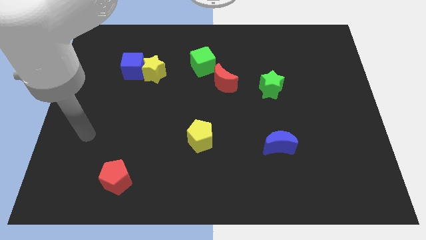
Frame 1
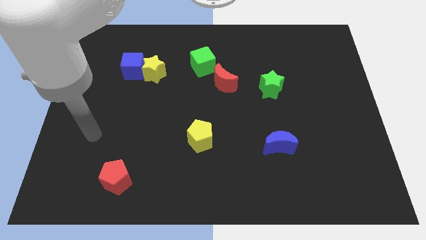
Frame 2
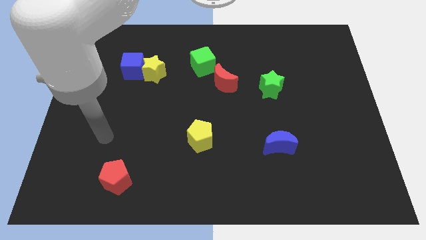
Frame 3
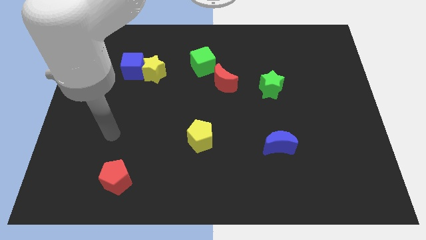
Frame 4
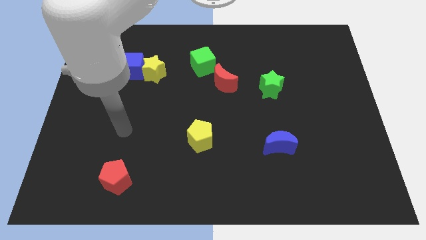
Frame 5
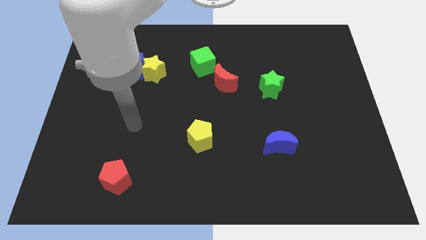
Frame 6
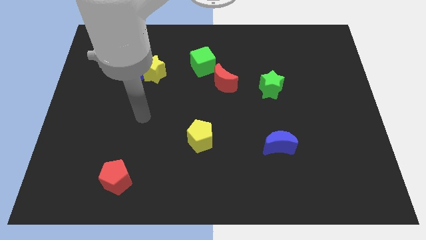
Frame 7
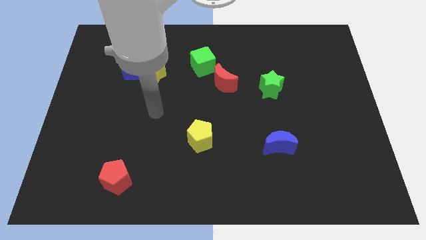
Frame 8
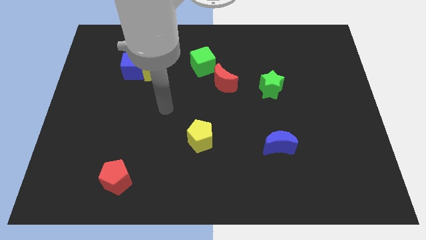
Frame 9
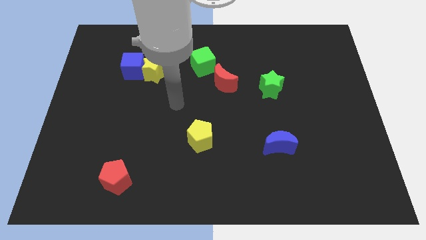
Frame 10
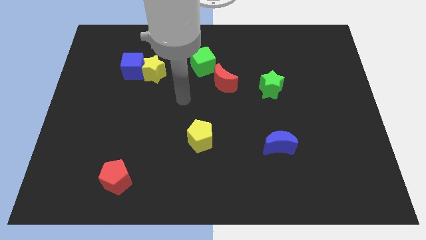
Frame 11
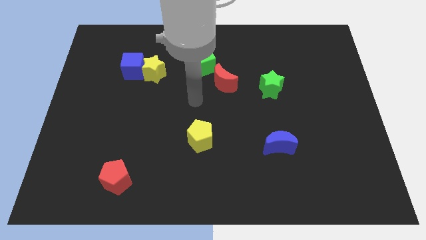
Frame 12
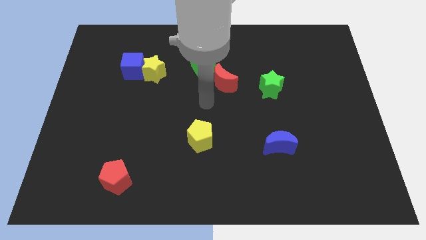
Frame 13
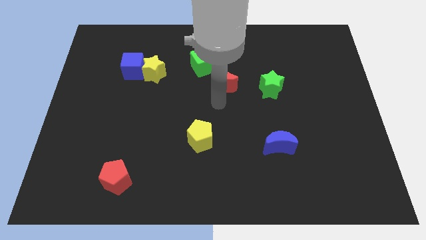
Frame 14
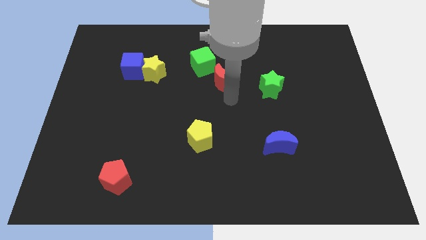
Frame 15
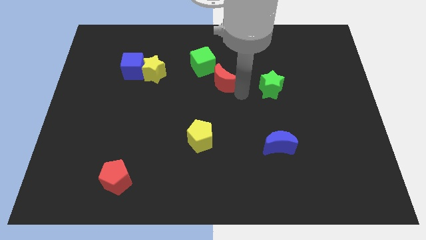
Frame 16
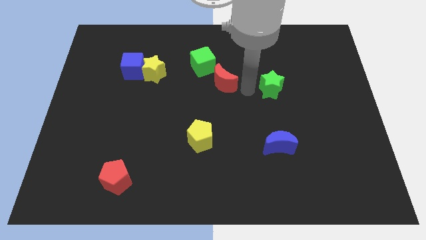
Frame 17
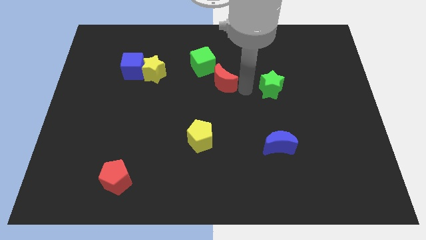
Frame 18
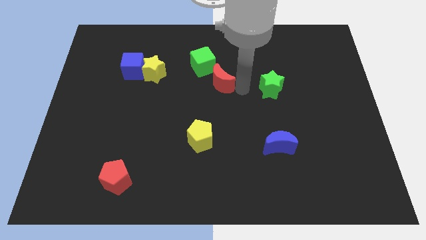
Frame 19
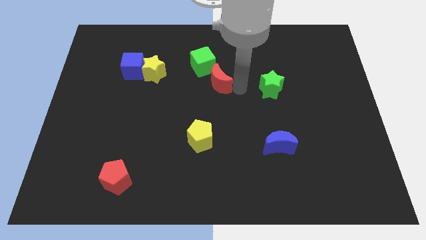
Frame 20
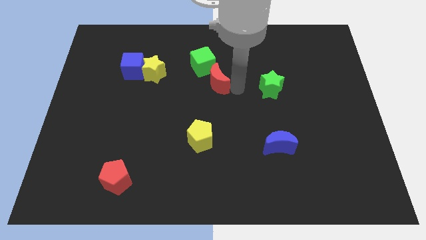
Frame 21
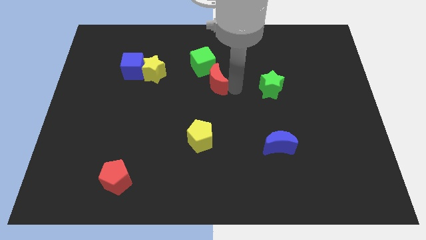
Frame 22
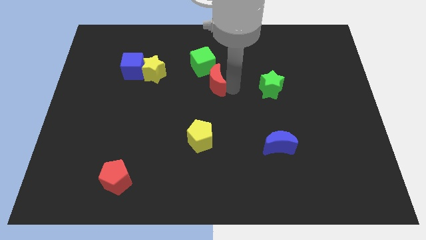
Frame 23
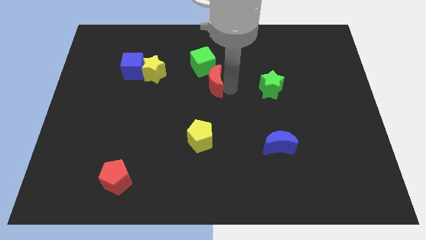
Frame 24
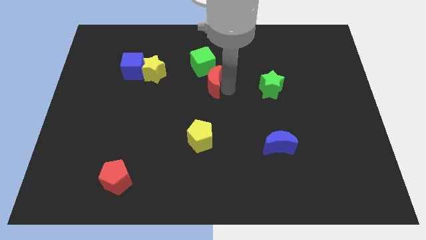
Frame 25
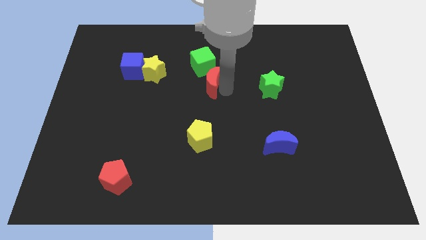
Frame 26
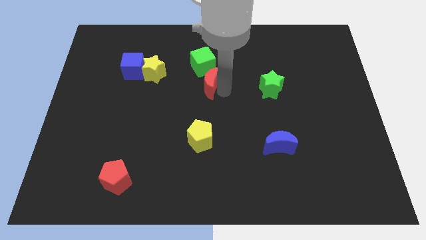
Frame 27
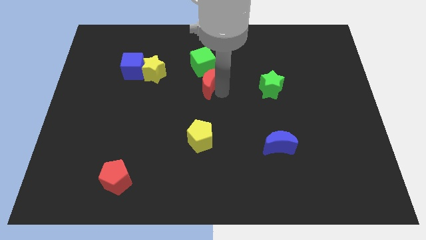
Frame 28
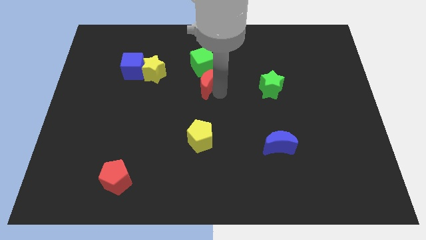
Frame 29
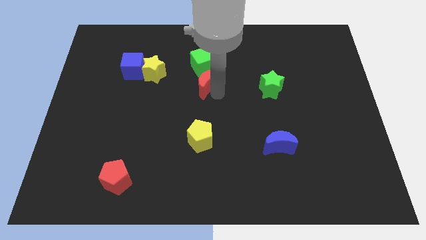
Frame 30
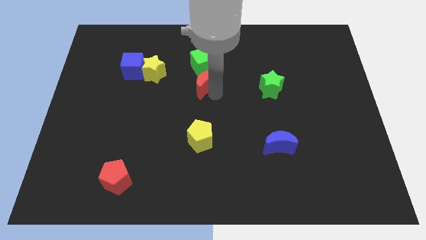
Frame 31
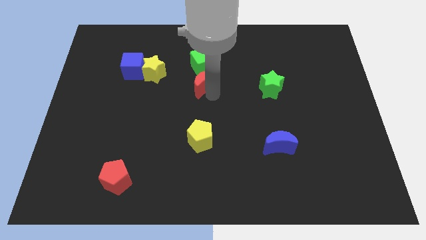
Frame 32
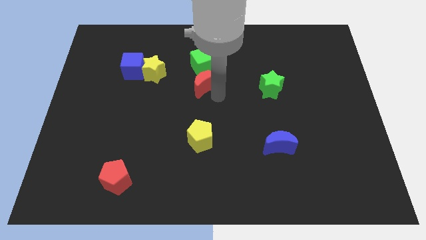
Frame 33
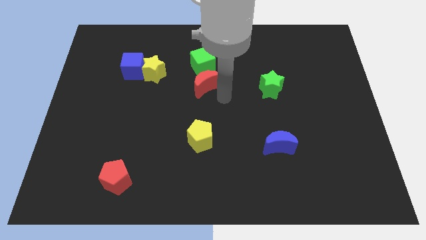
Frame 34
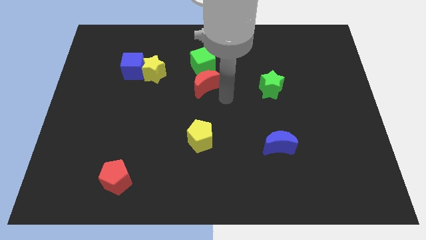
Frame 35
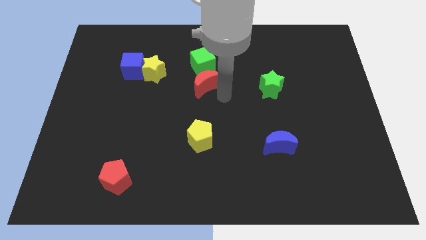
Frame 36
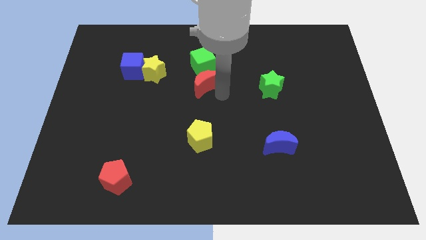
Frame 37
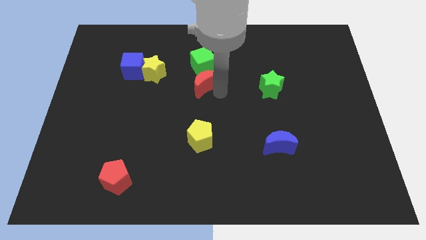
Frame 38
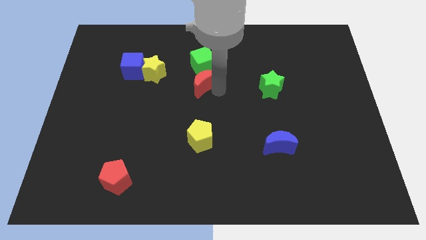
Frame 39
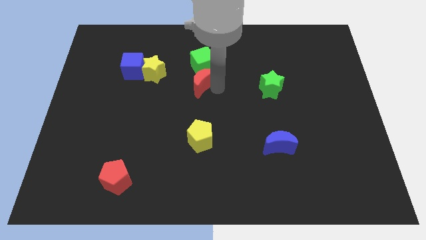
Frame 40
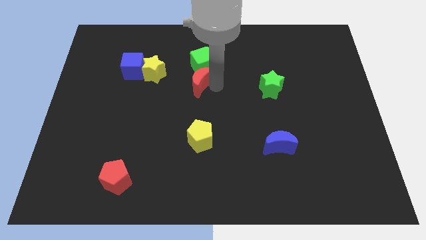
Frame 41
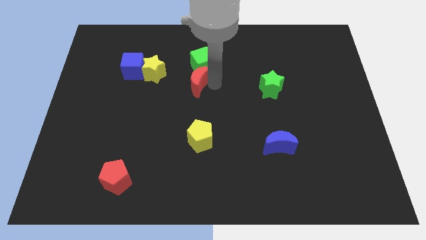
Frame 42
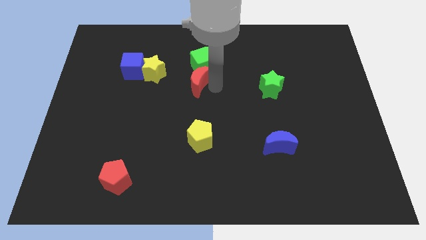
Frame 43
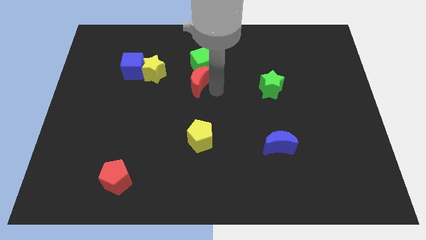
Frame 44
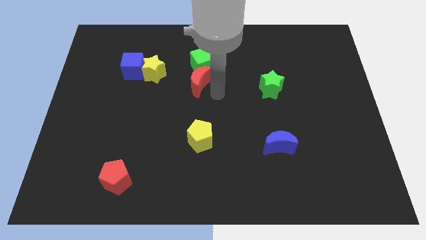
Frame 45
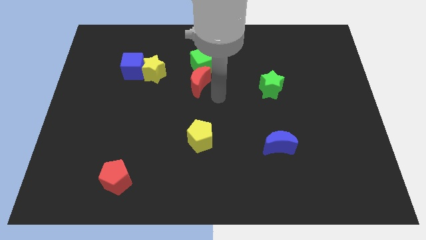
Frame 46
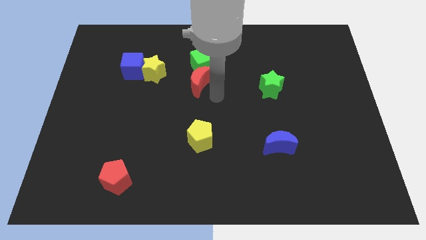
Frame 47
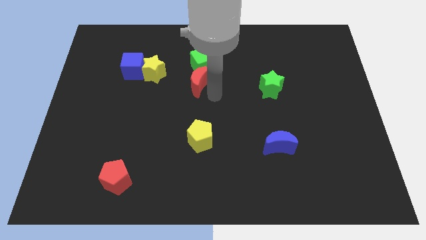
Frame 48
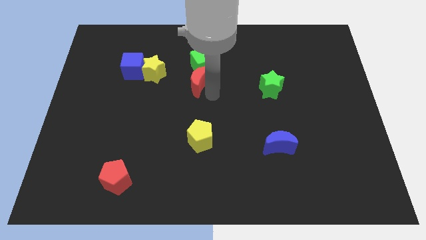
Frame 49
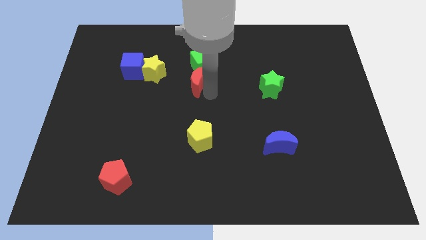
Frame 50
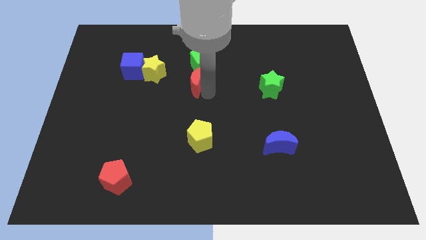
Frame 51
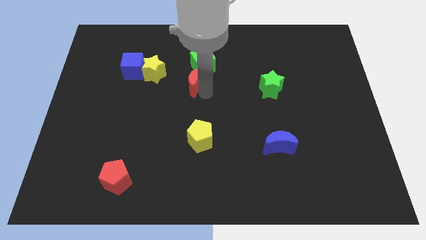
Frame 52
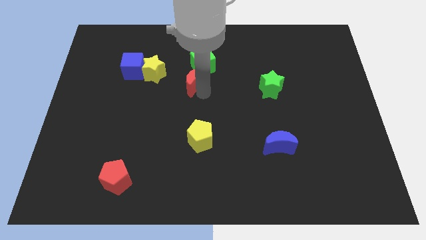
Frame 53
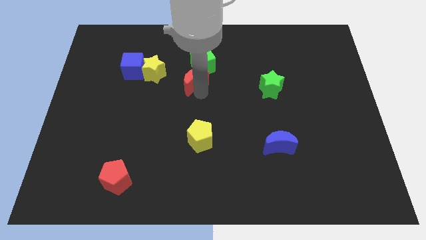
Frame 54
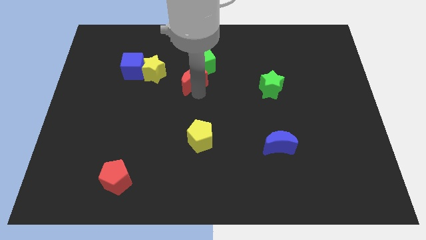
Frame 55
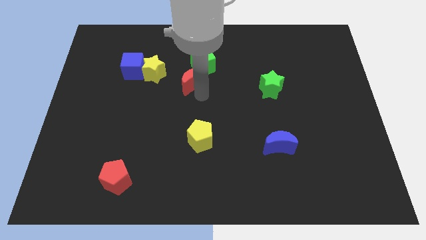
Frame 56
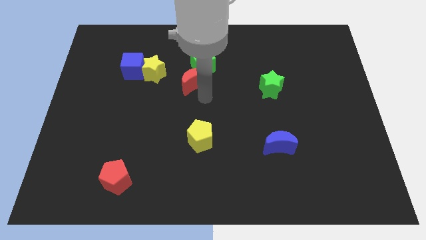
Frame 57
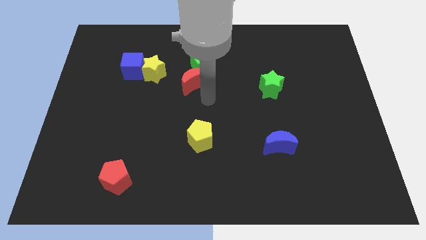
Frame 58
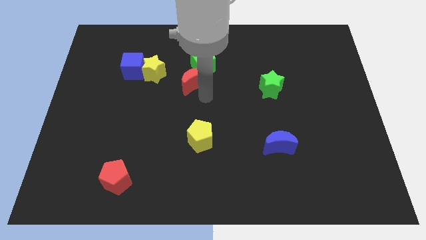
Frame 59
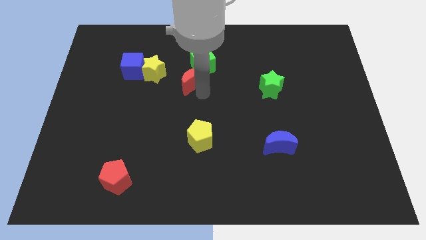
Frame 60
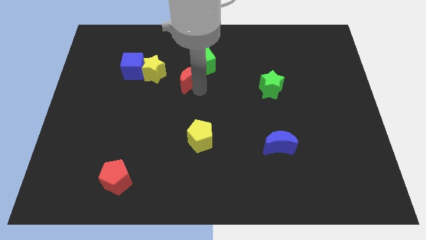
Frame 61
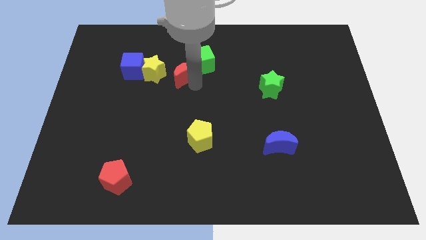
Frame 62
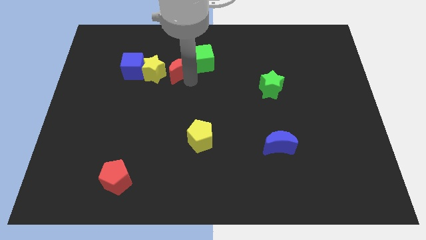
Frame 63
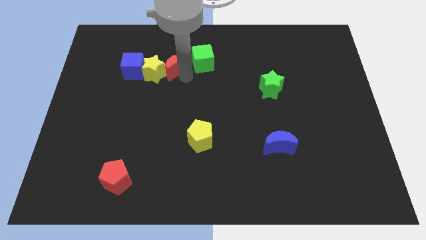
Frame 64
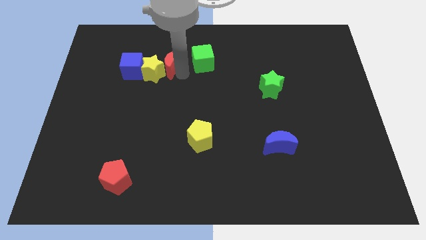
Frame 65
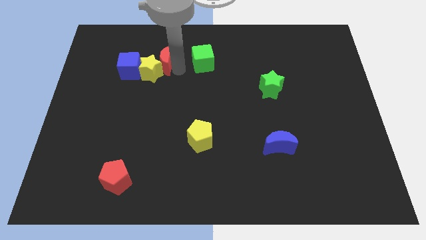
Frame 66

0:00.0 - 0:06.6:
put the red moon to the top right of the blue cube
